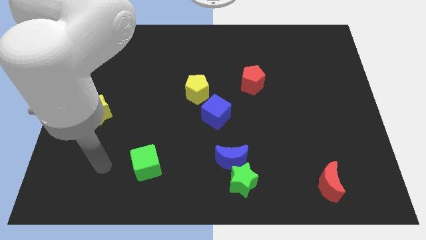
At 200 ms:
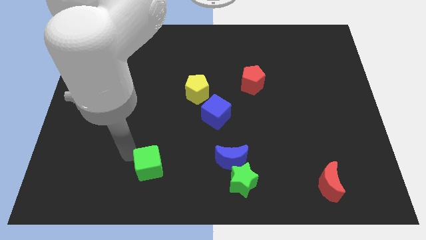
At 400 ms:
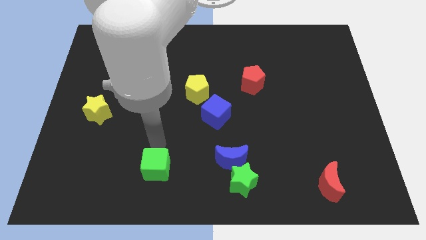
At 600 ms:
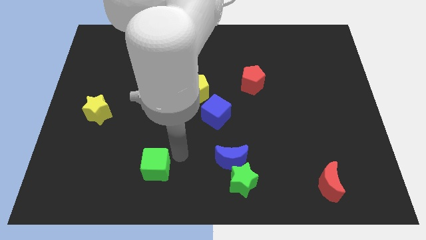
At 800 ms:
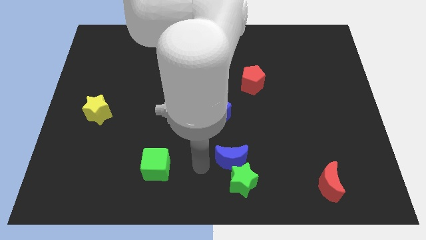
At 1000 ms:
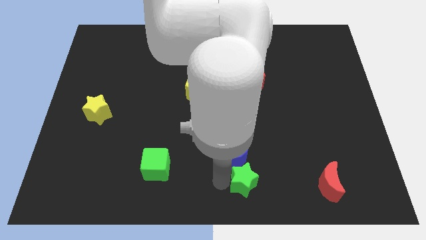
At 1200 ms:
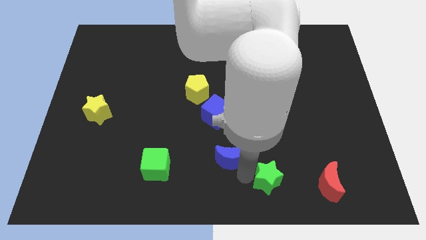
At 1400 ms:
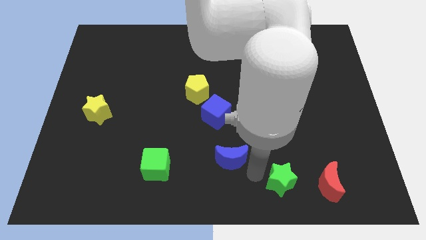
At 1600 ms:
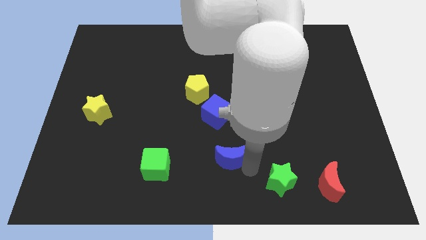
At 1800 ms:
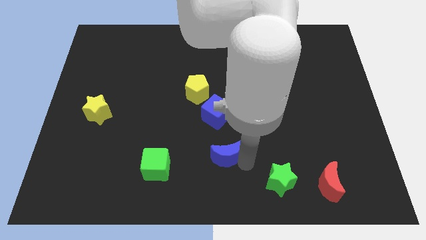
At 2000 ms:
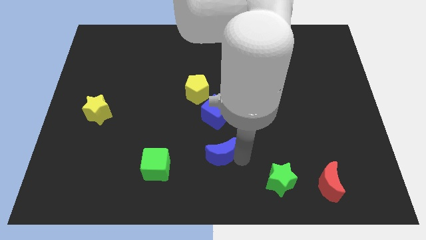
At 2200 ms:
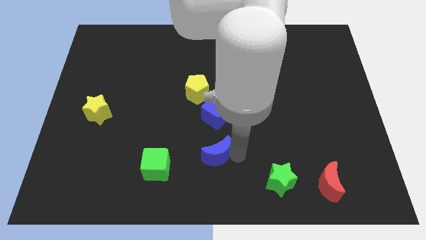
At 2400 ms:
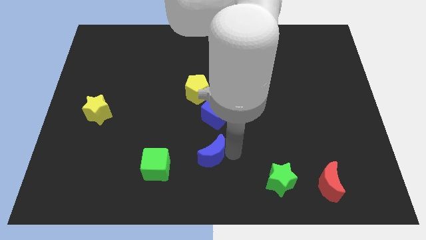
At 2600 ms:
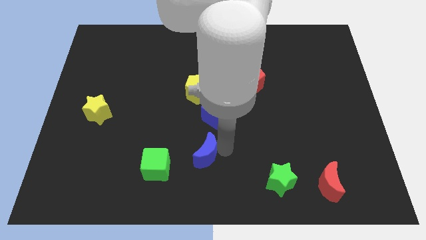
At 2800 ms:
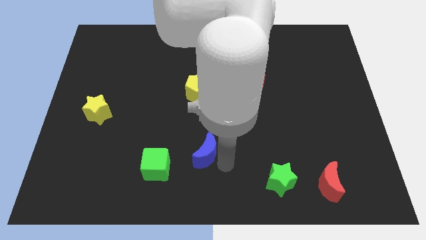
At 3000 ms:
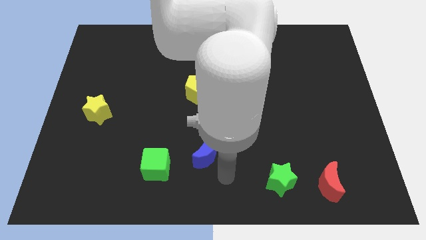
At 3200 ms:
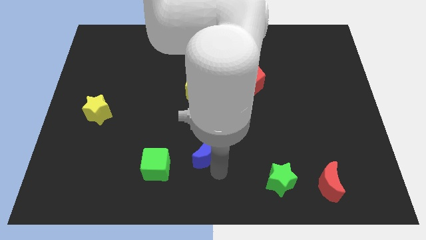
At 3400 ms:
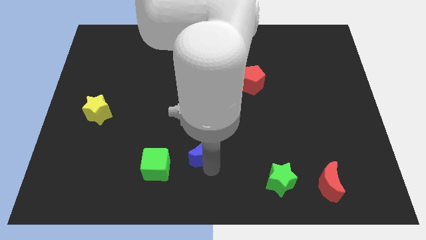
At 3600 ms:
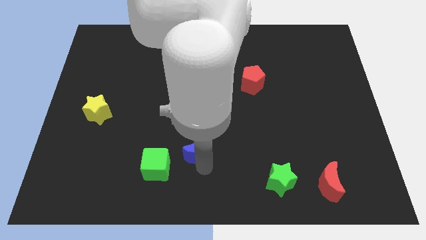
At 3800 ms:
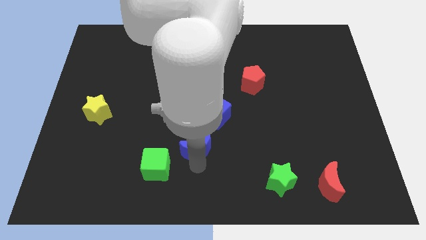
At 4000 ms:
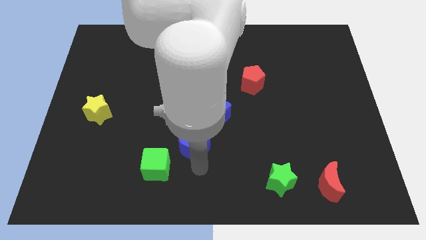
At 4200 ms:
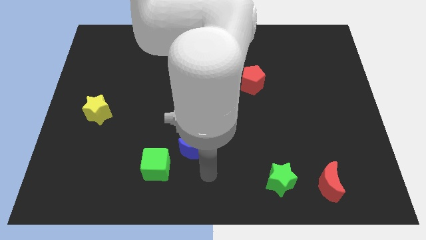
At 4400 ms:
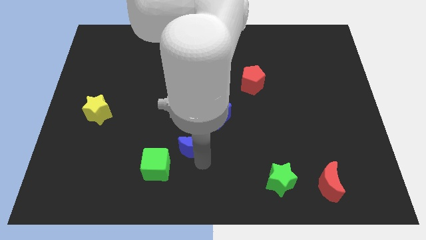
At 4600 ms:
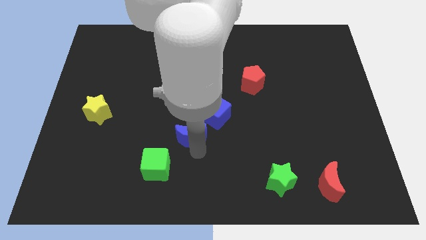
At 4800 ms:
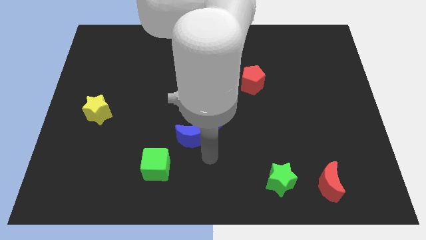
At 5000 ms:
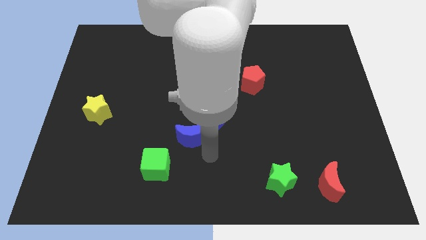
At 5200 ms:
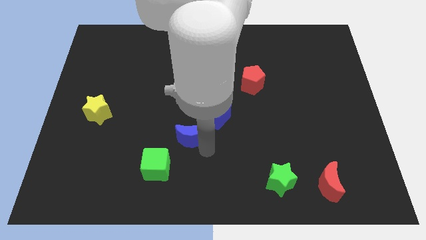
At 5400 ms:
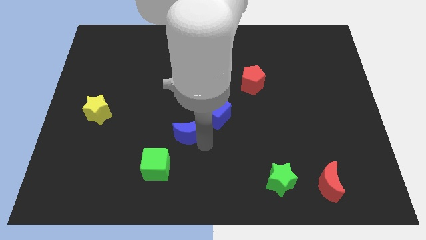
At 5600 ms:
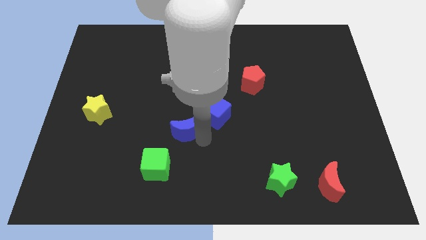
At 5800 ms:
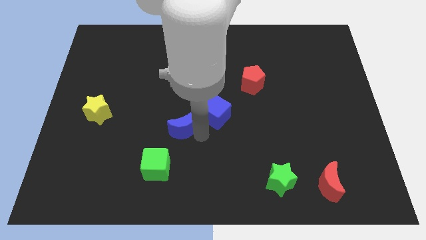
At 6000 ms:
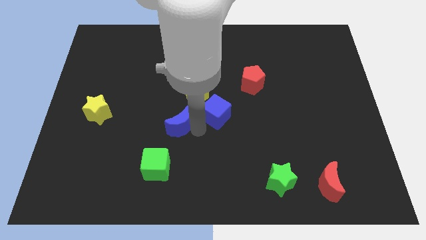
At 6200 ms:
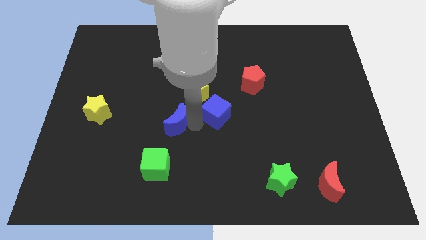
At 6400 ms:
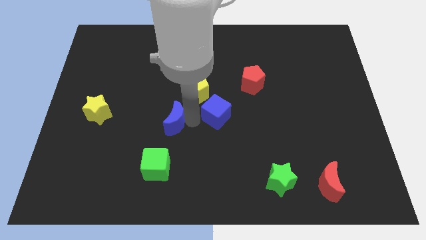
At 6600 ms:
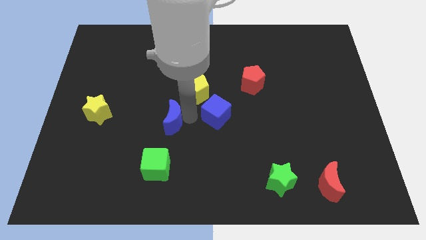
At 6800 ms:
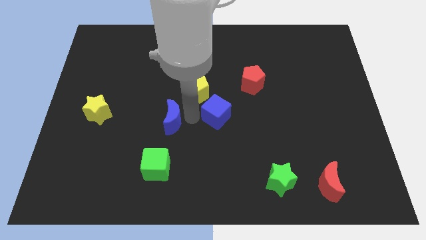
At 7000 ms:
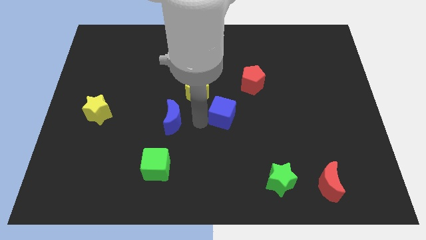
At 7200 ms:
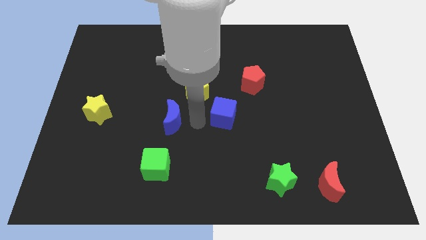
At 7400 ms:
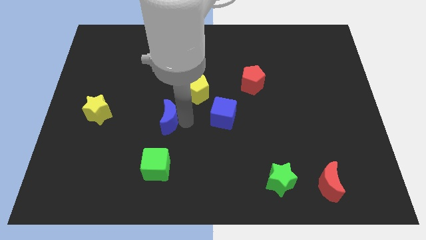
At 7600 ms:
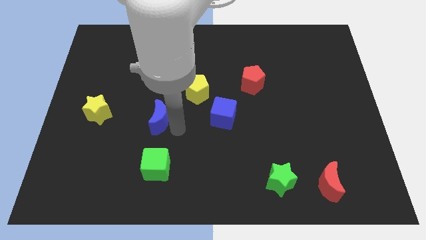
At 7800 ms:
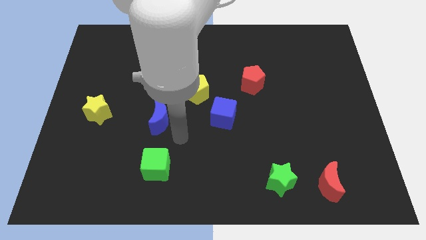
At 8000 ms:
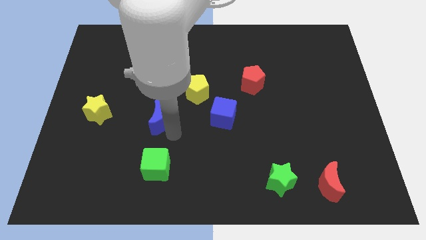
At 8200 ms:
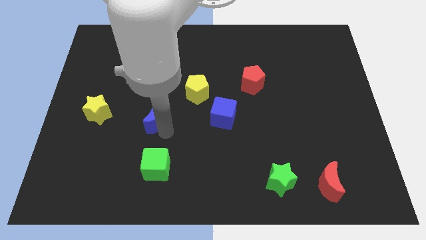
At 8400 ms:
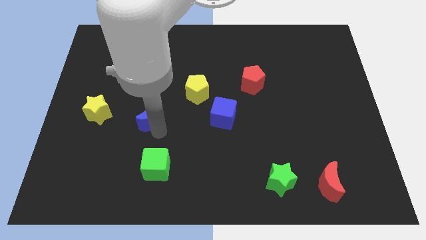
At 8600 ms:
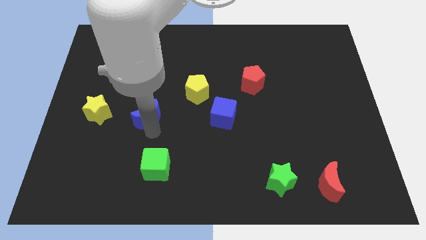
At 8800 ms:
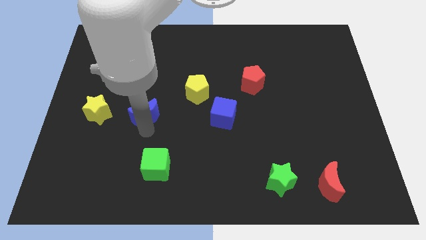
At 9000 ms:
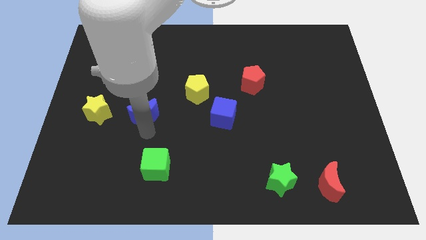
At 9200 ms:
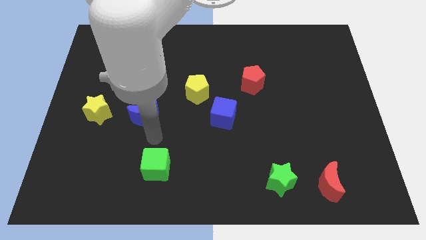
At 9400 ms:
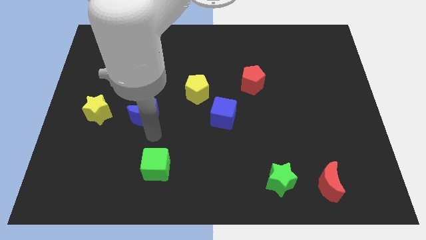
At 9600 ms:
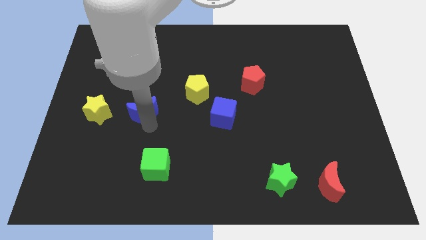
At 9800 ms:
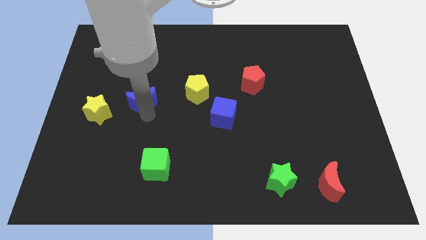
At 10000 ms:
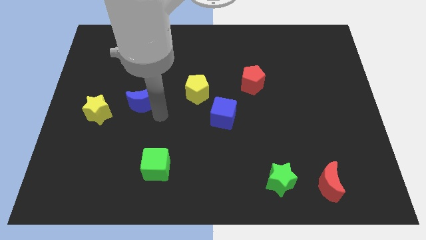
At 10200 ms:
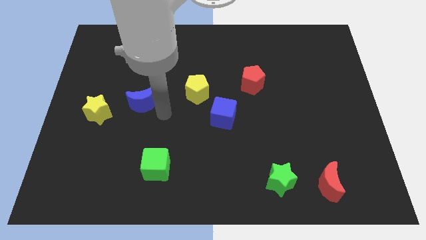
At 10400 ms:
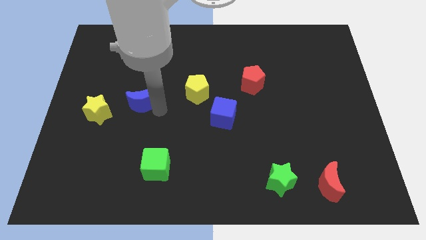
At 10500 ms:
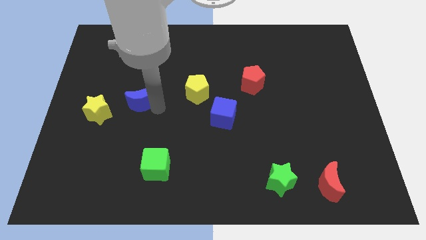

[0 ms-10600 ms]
move the blue moon diagonally up and to the right of the yellow star

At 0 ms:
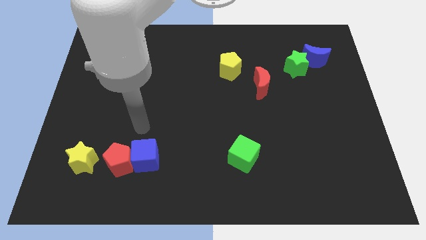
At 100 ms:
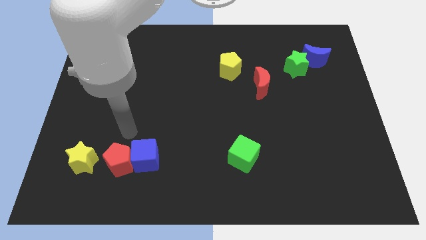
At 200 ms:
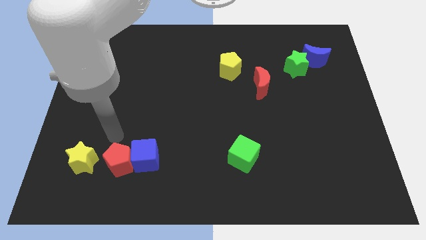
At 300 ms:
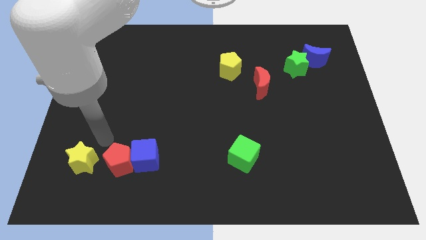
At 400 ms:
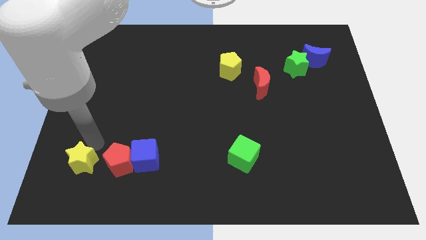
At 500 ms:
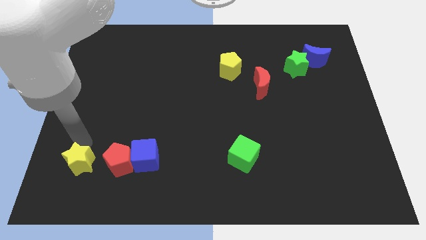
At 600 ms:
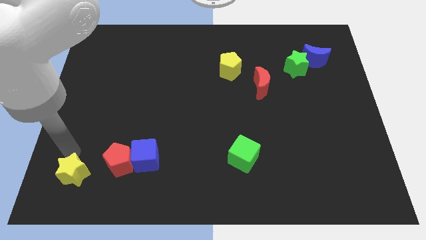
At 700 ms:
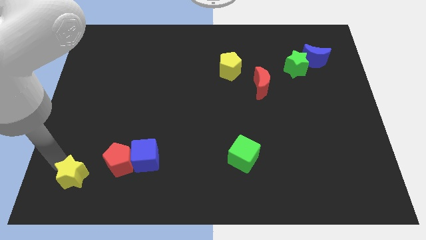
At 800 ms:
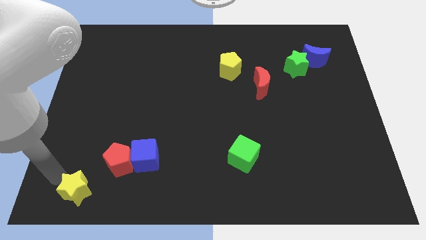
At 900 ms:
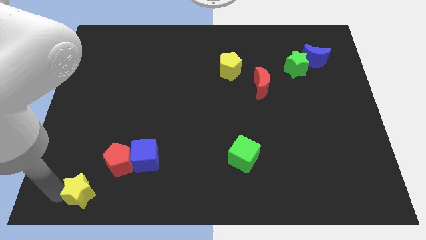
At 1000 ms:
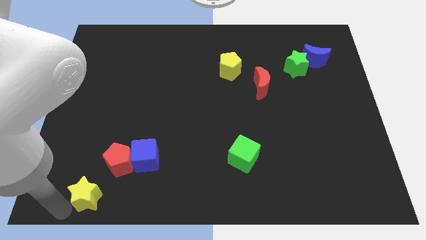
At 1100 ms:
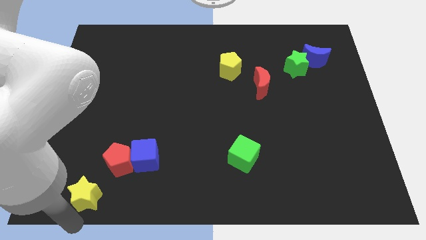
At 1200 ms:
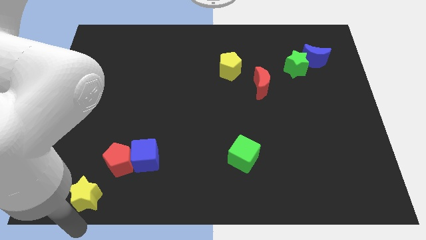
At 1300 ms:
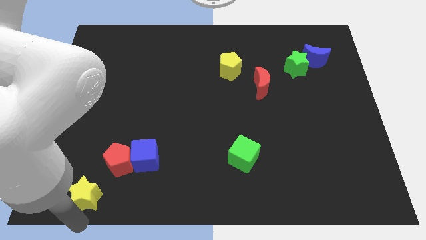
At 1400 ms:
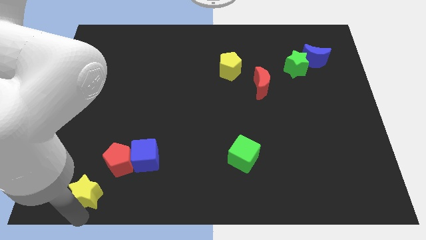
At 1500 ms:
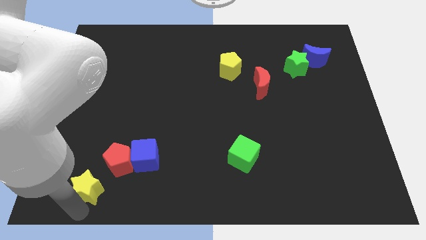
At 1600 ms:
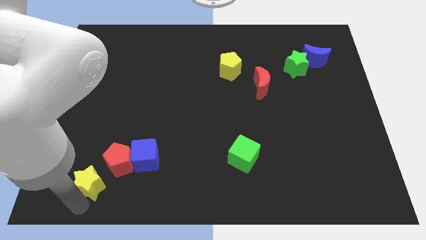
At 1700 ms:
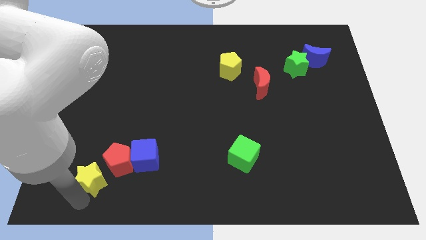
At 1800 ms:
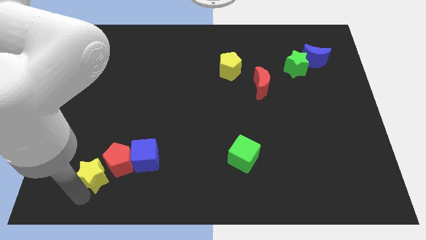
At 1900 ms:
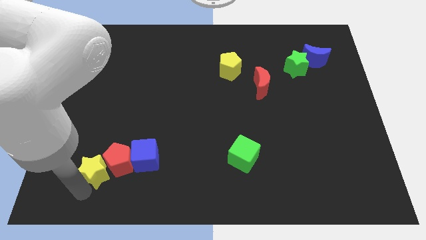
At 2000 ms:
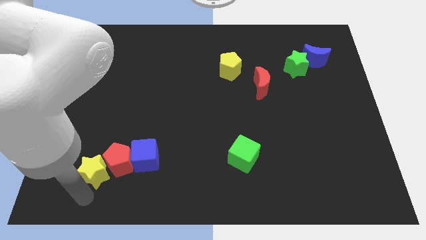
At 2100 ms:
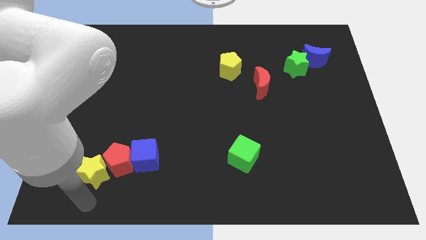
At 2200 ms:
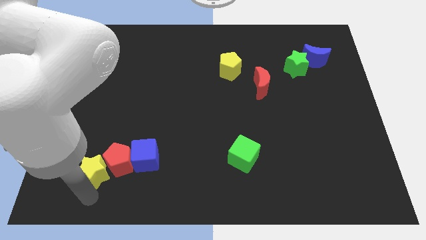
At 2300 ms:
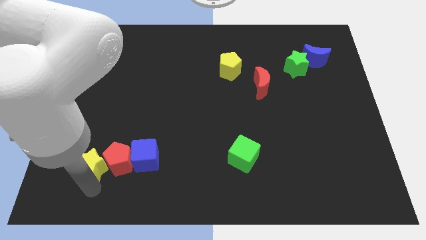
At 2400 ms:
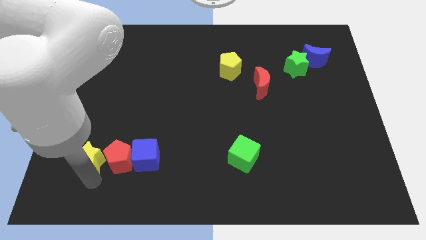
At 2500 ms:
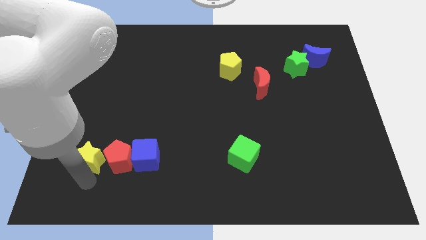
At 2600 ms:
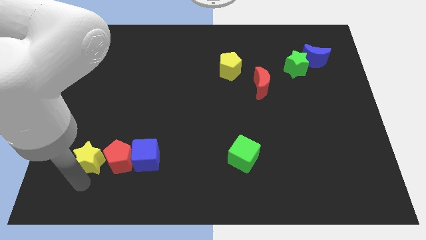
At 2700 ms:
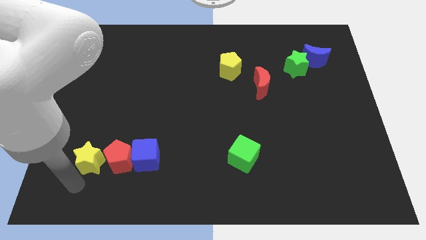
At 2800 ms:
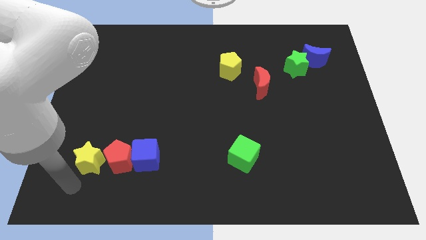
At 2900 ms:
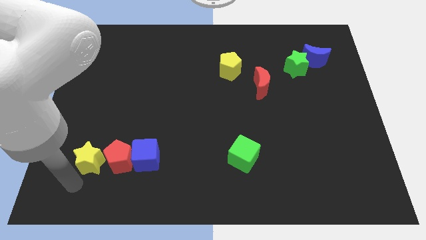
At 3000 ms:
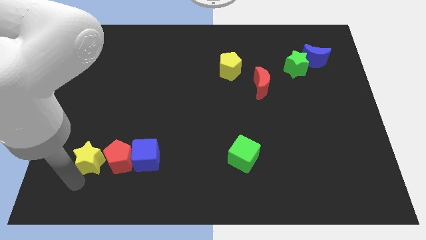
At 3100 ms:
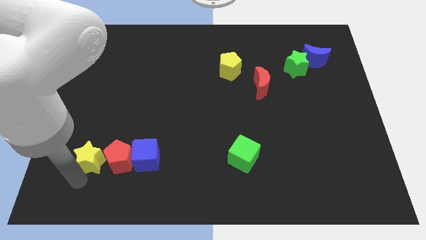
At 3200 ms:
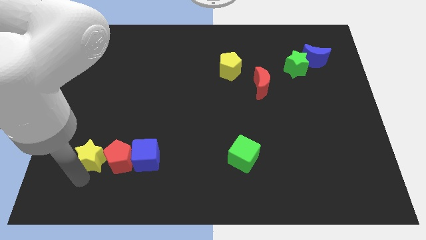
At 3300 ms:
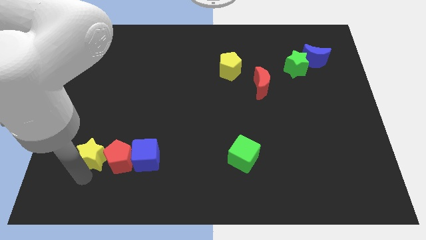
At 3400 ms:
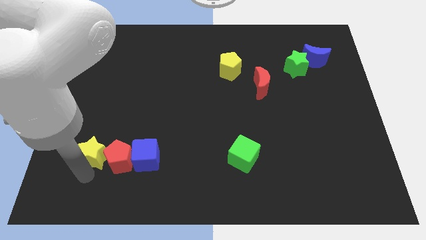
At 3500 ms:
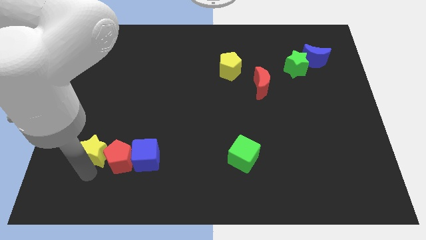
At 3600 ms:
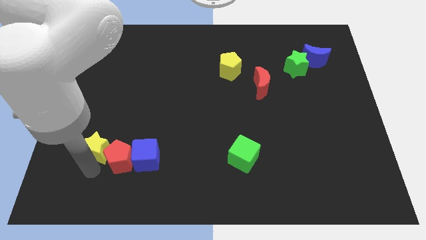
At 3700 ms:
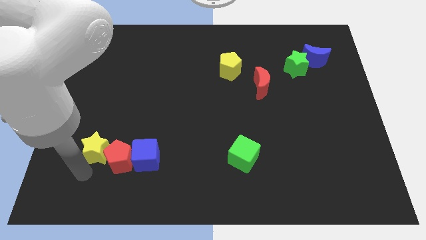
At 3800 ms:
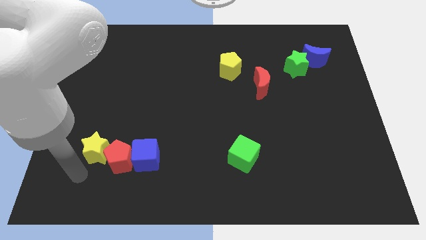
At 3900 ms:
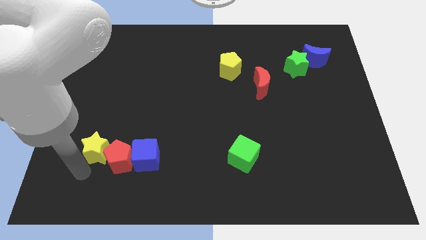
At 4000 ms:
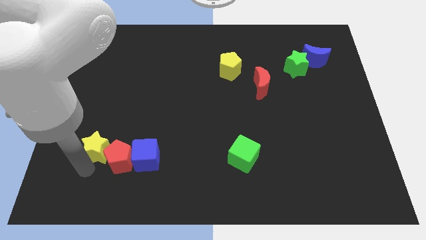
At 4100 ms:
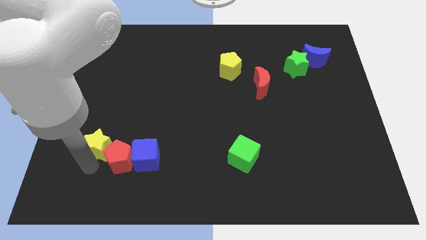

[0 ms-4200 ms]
move the yellow star to the top of the red pentagon
